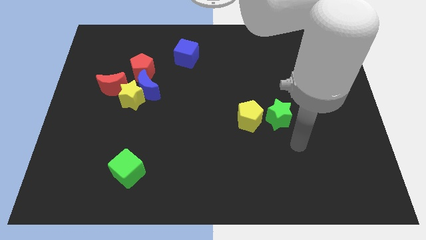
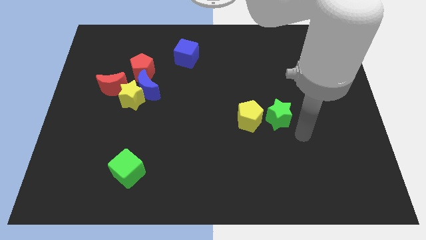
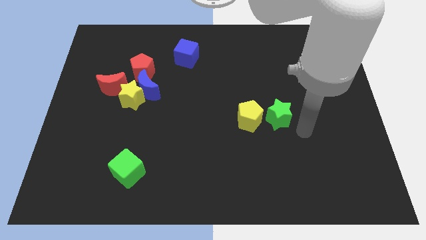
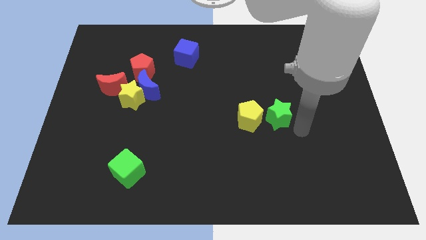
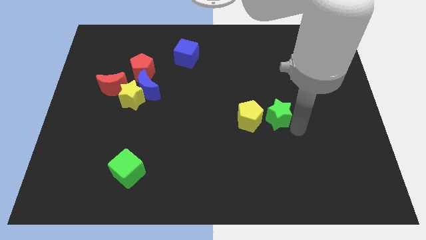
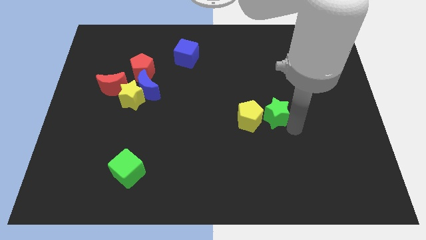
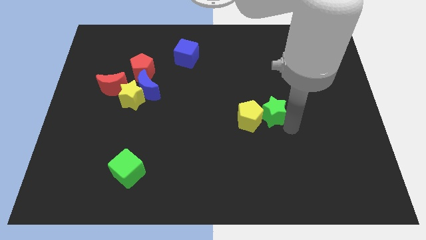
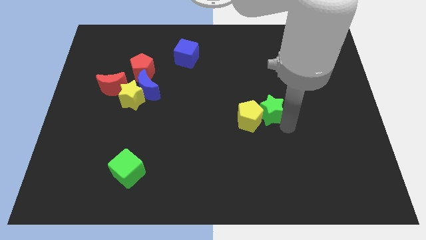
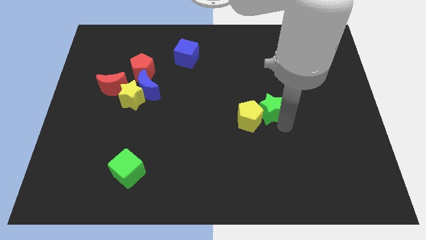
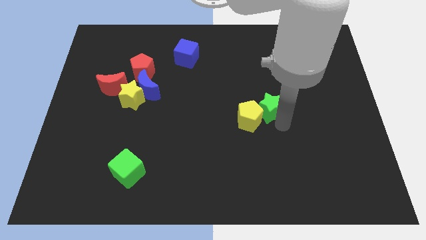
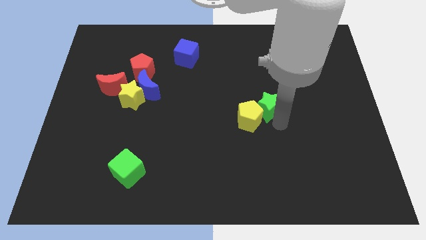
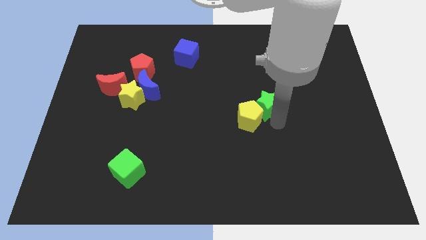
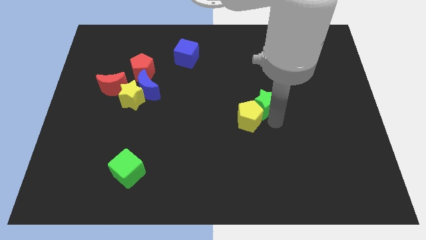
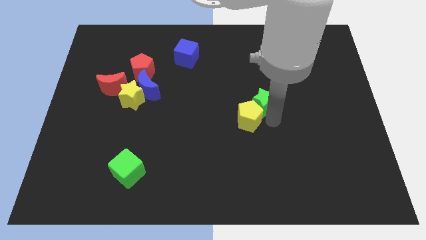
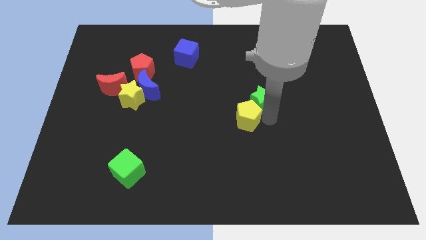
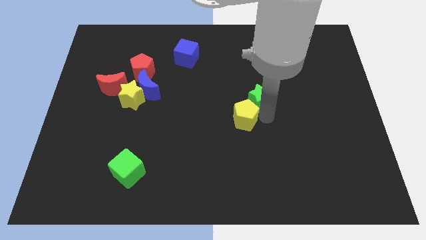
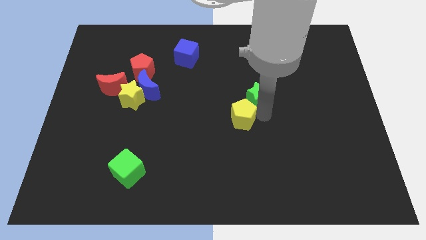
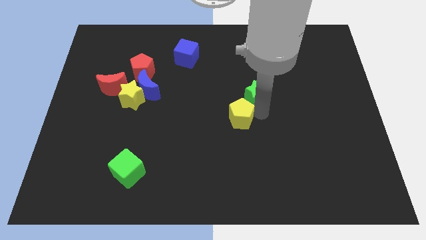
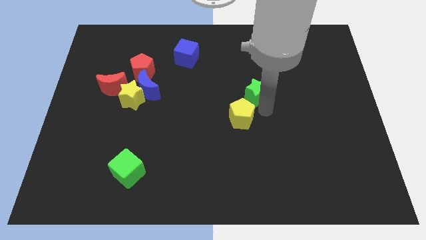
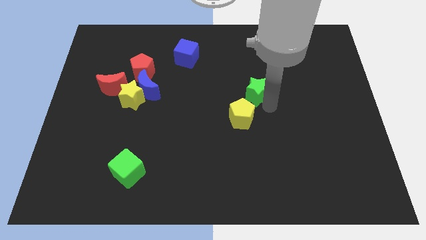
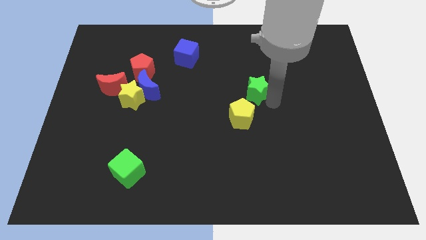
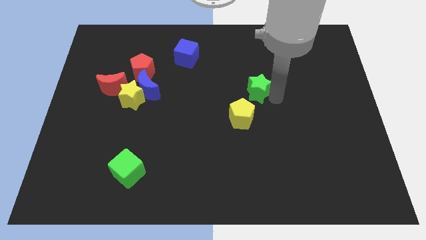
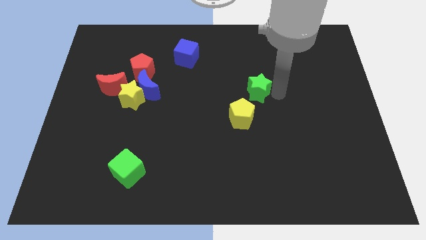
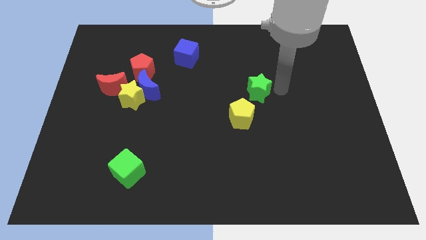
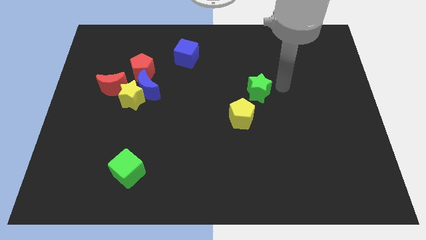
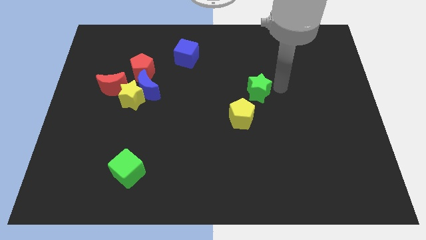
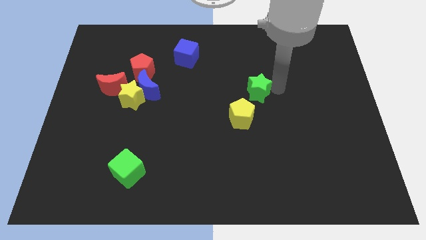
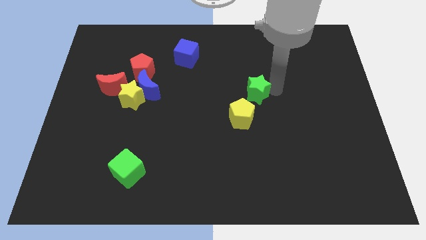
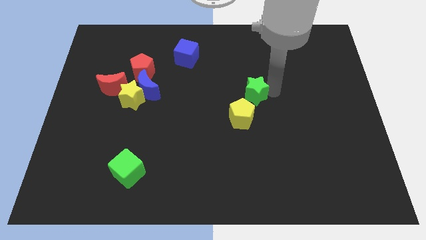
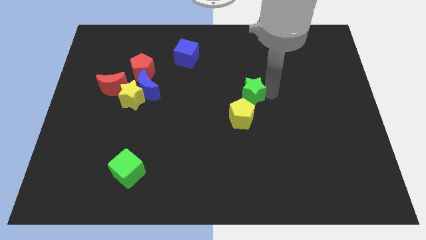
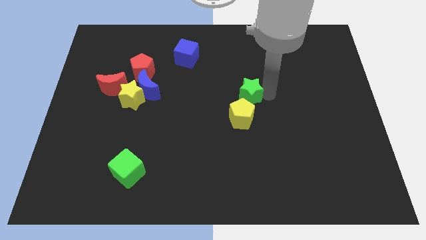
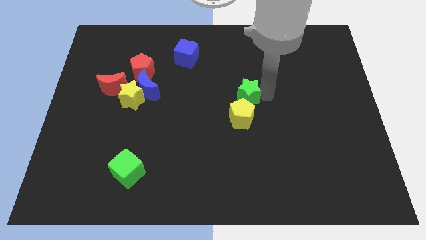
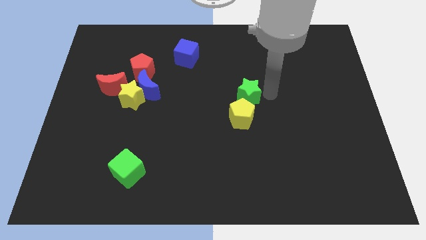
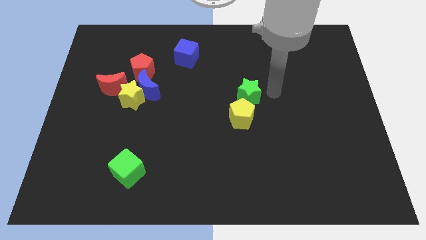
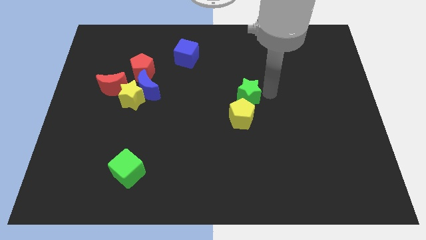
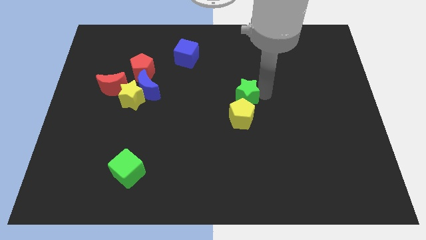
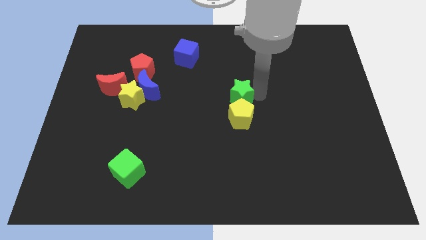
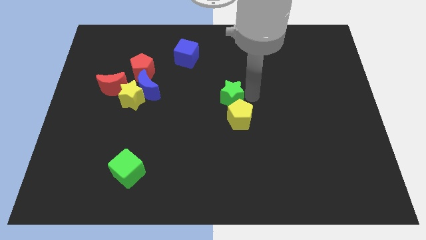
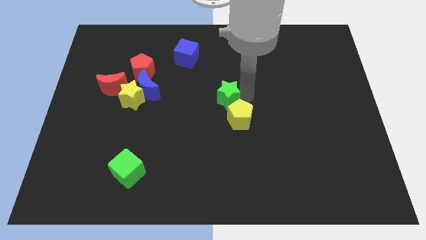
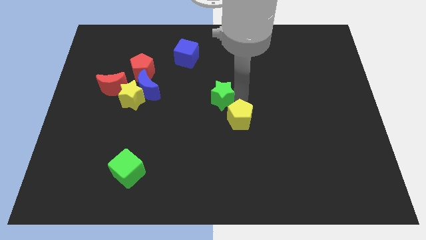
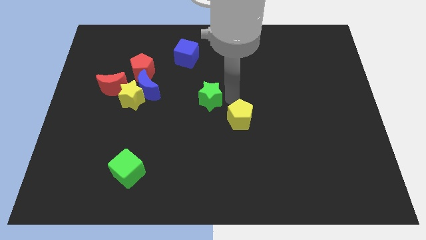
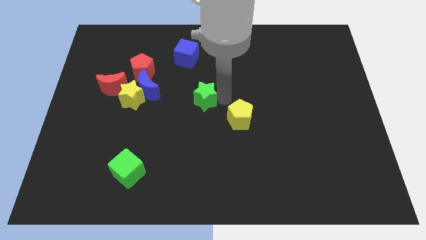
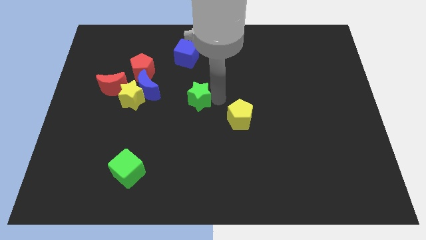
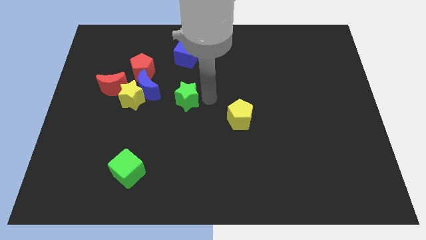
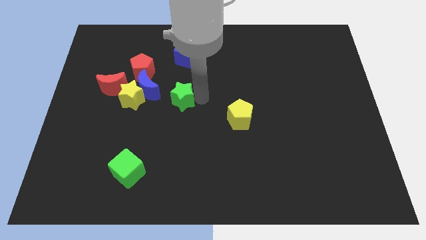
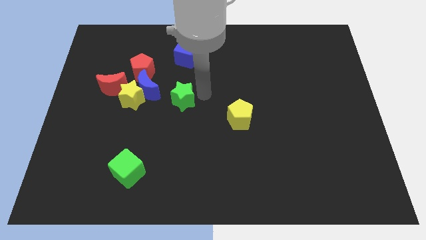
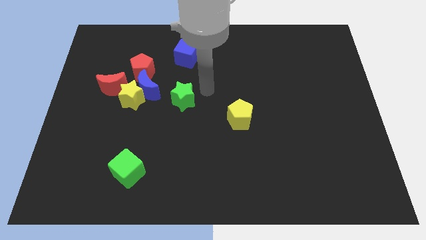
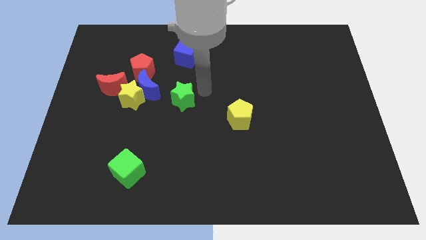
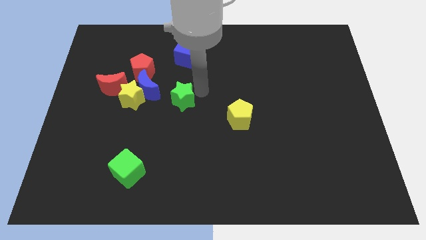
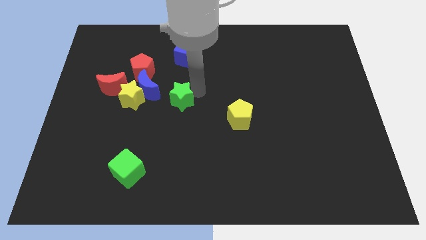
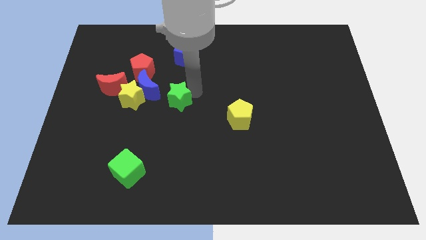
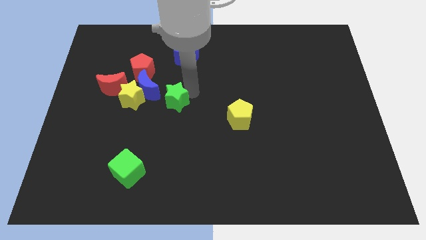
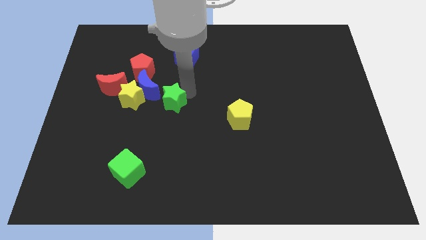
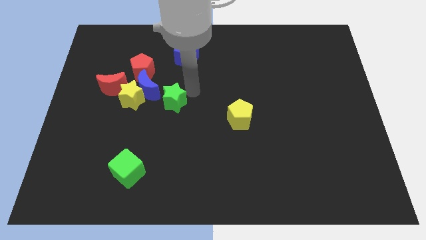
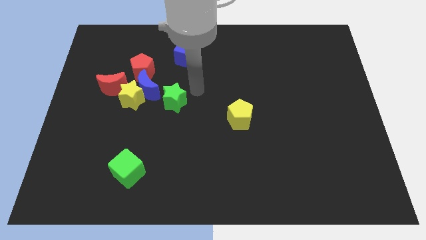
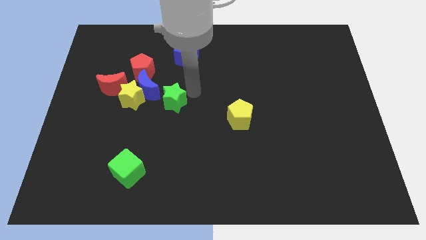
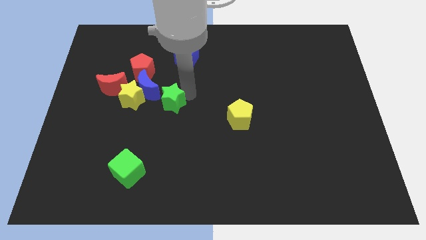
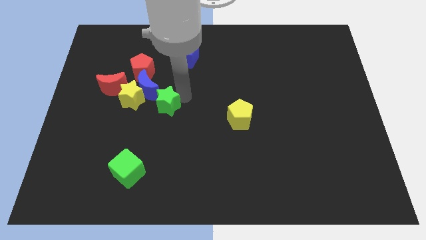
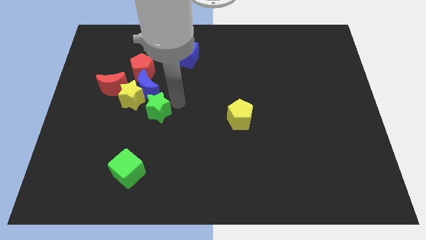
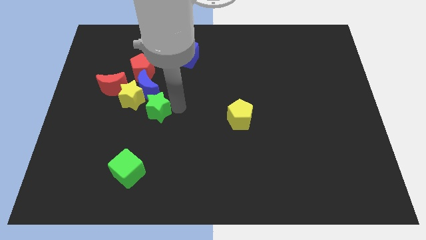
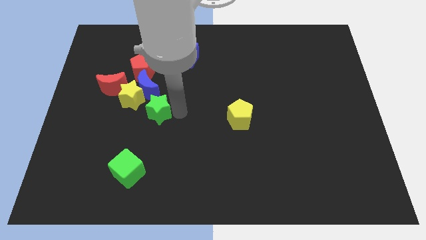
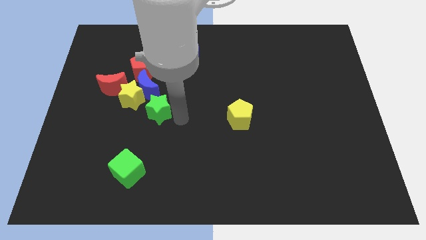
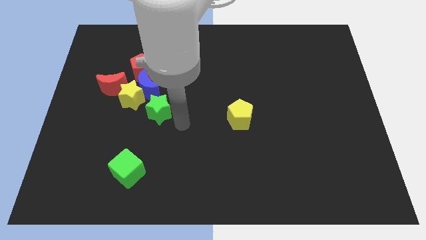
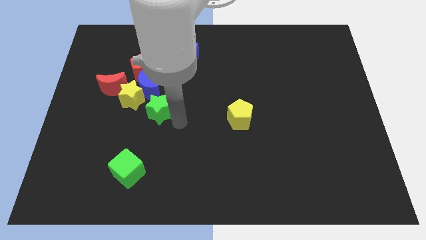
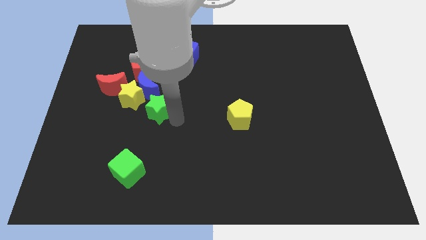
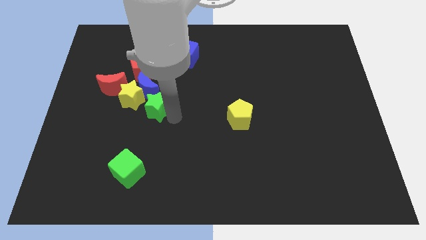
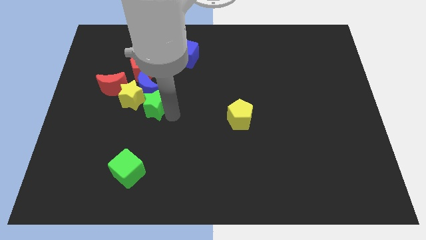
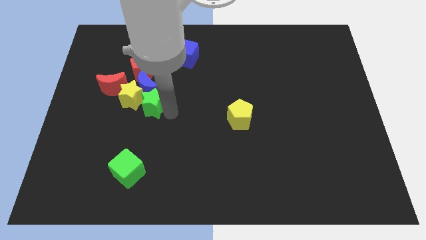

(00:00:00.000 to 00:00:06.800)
slide the green star towards the yellow star

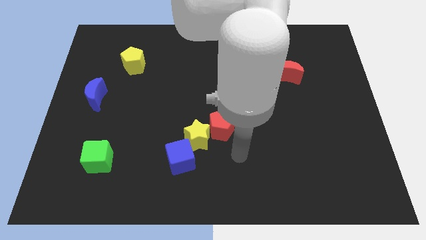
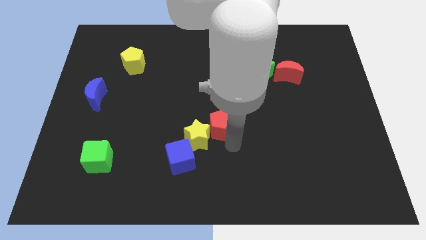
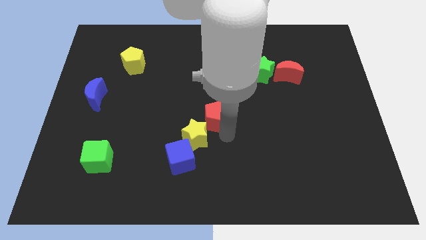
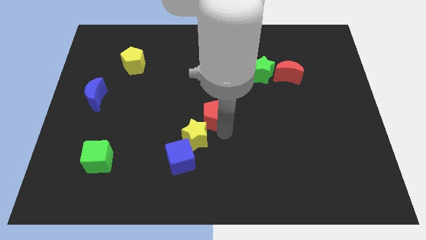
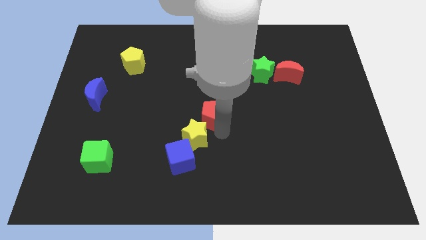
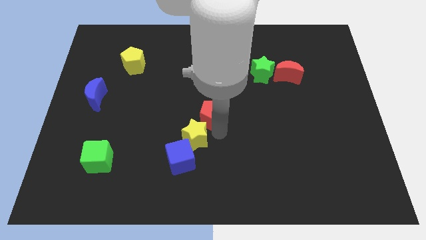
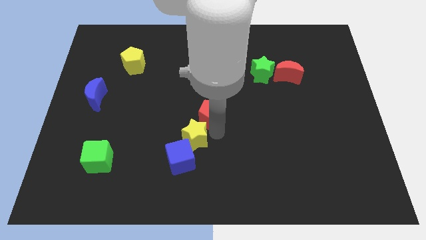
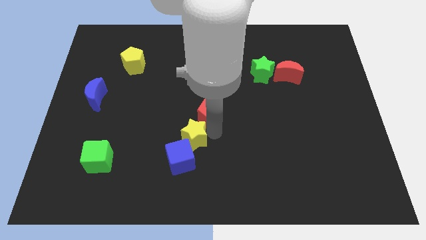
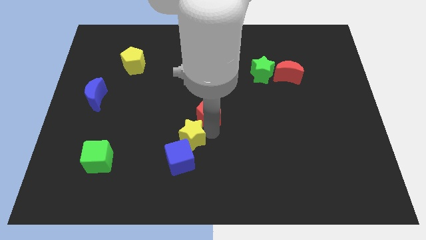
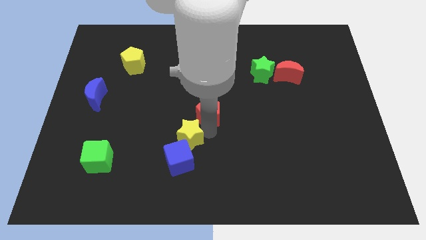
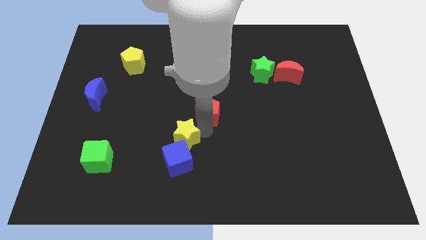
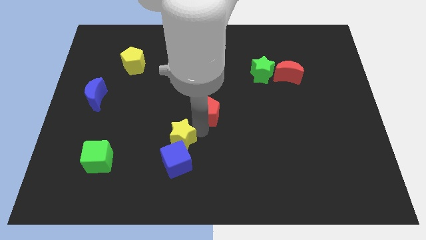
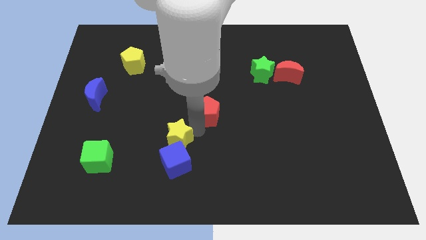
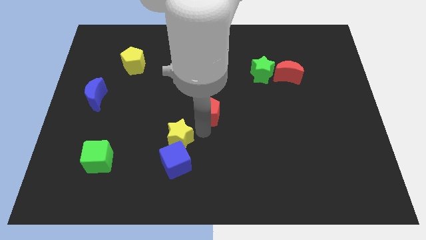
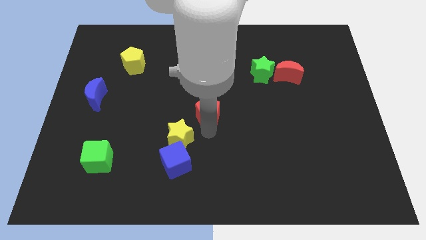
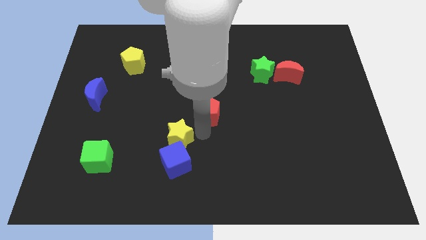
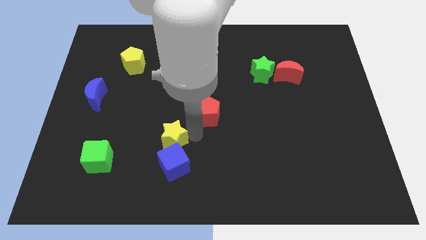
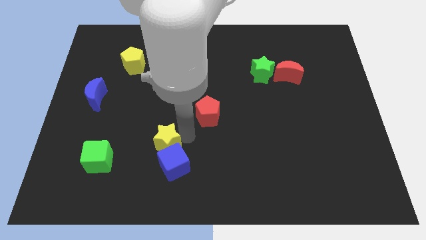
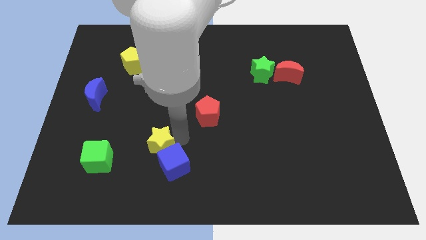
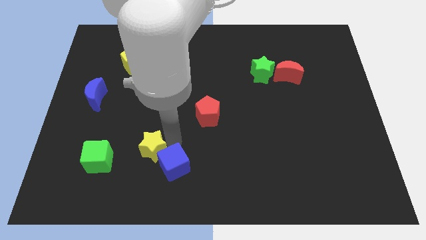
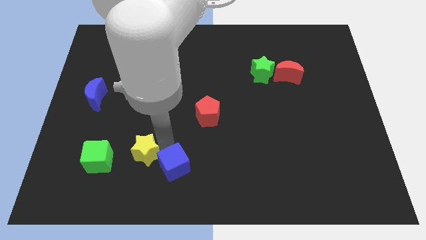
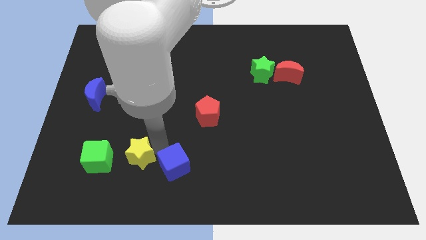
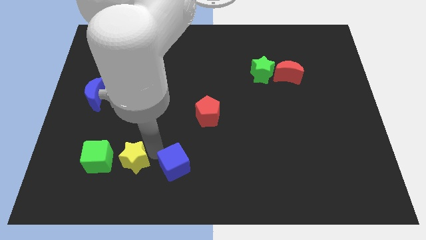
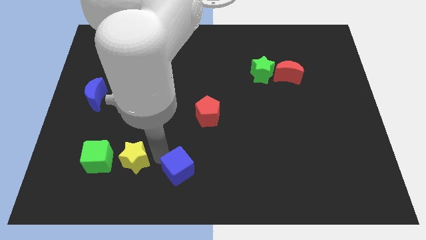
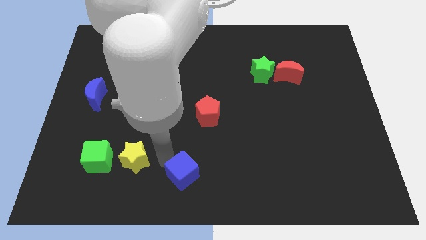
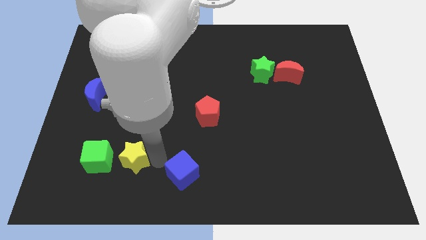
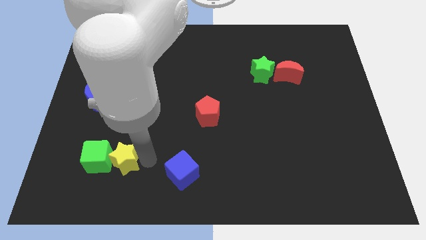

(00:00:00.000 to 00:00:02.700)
slide the yellow star towards the green cube
